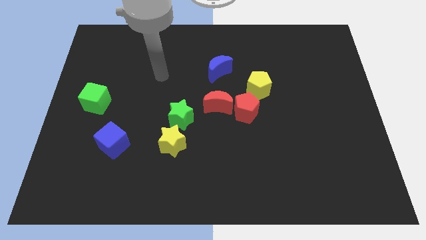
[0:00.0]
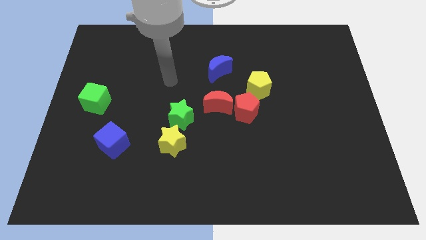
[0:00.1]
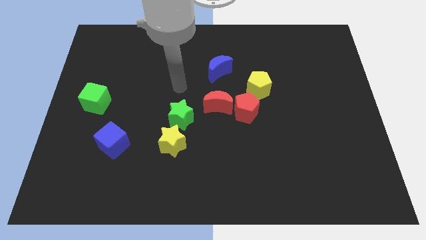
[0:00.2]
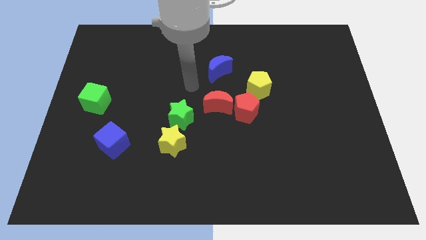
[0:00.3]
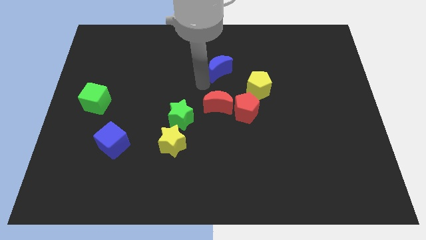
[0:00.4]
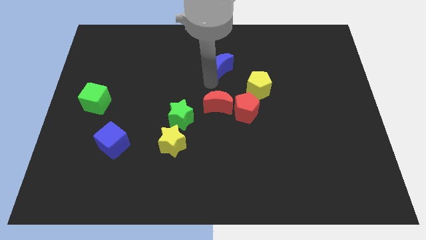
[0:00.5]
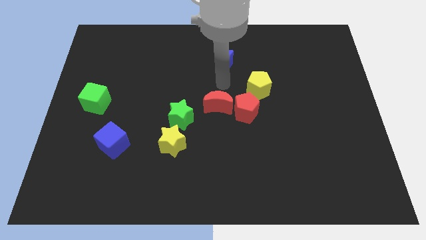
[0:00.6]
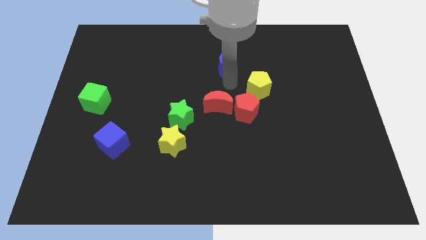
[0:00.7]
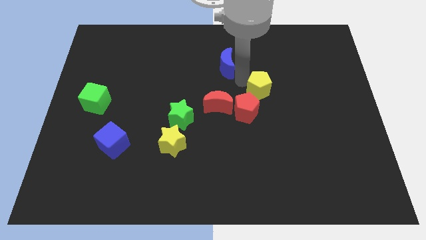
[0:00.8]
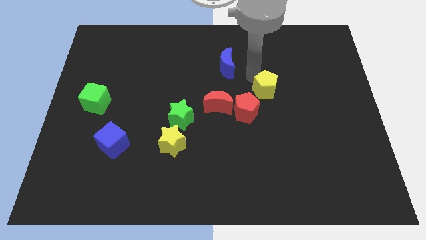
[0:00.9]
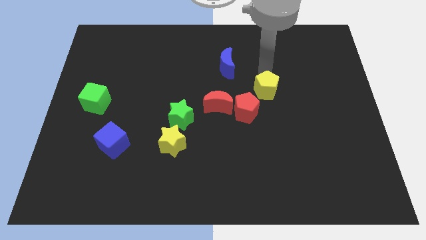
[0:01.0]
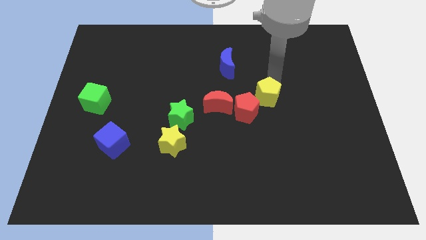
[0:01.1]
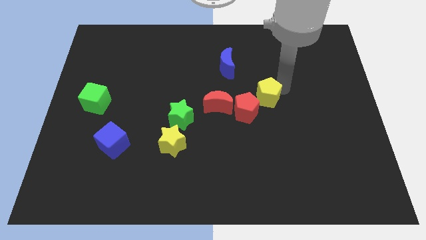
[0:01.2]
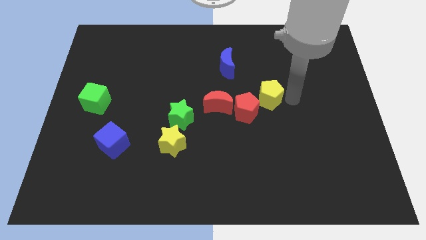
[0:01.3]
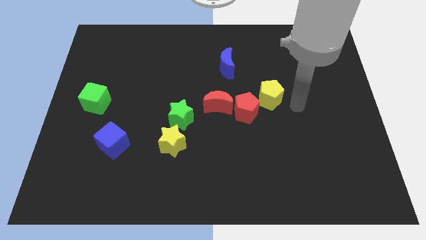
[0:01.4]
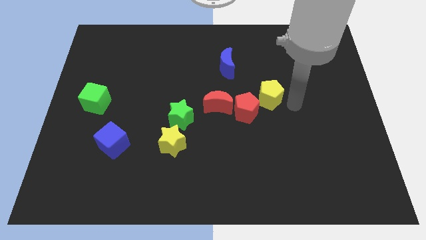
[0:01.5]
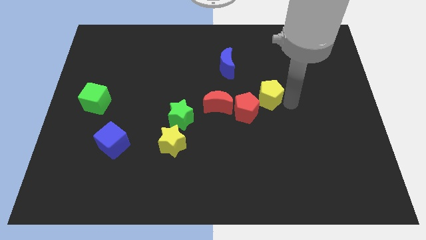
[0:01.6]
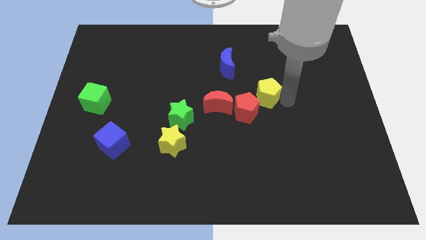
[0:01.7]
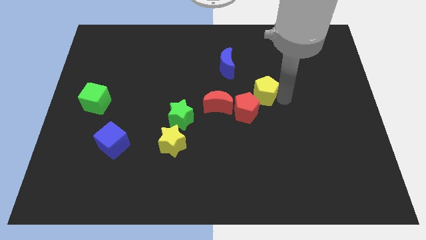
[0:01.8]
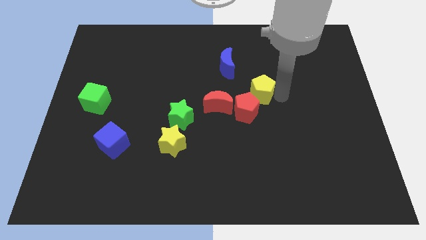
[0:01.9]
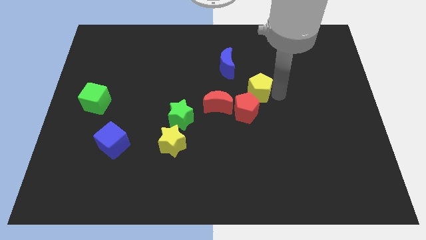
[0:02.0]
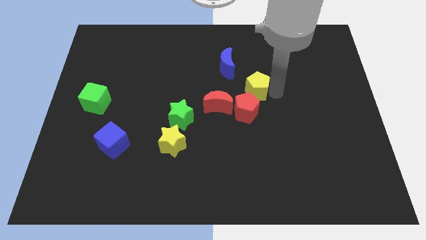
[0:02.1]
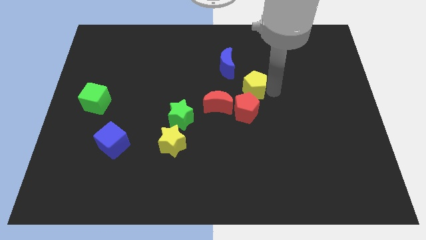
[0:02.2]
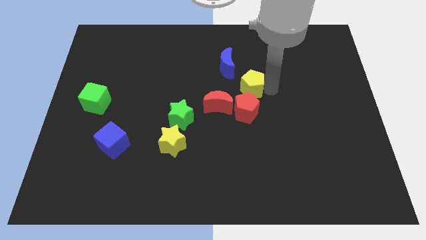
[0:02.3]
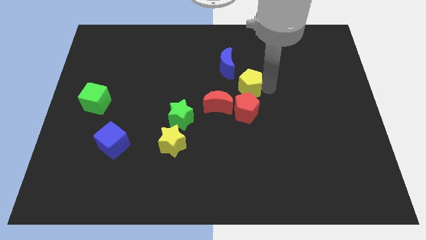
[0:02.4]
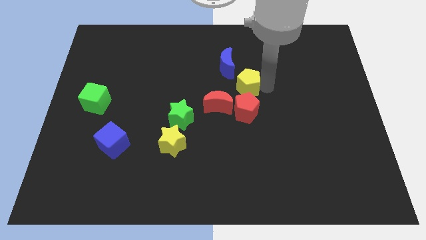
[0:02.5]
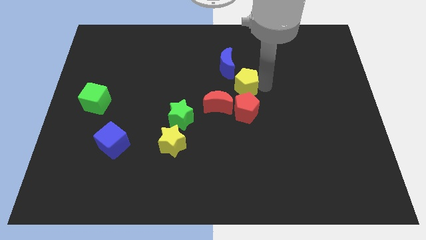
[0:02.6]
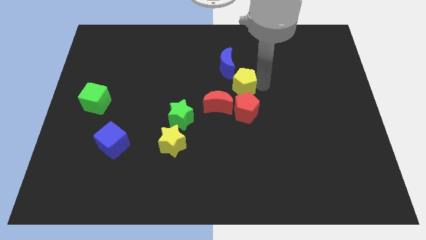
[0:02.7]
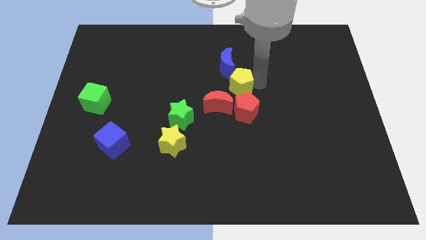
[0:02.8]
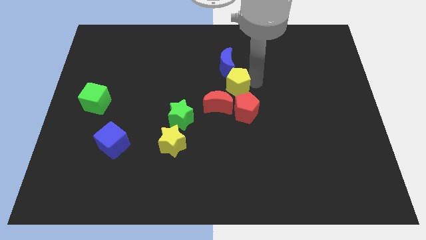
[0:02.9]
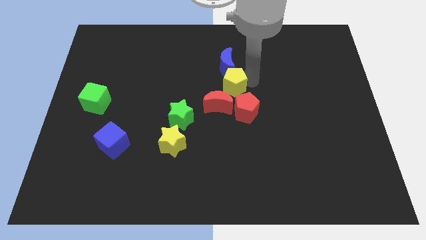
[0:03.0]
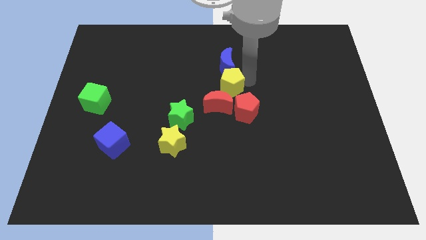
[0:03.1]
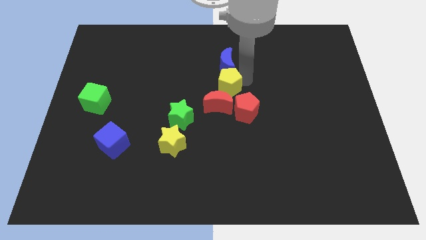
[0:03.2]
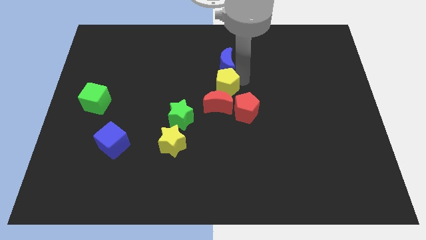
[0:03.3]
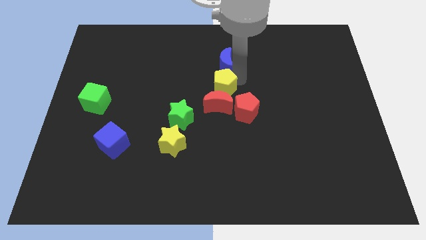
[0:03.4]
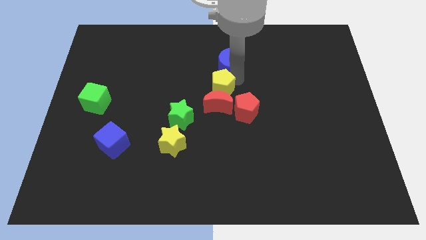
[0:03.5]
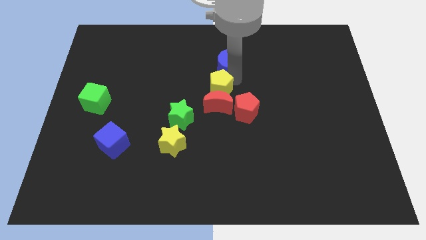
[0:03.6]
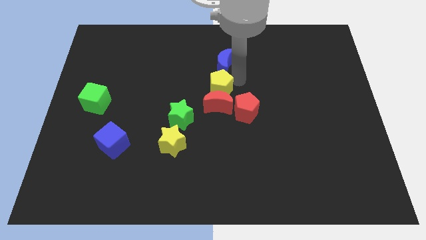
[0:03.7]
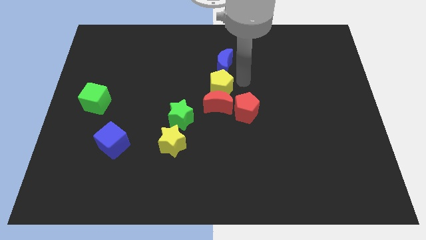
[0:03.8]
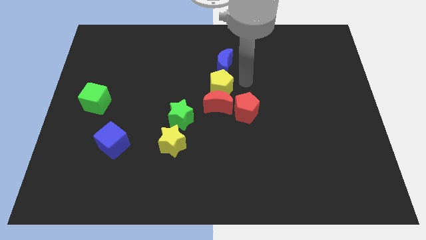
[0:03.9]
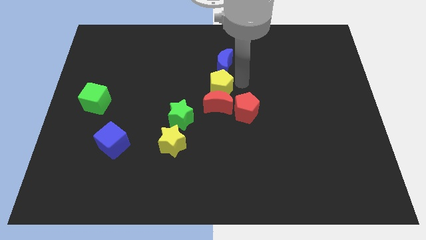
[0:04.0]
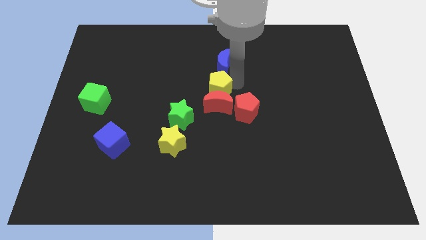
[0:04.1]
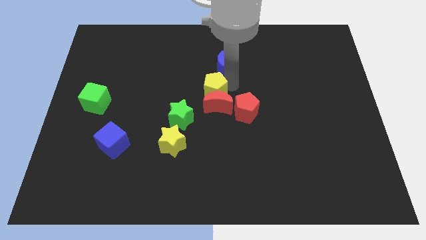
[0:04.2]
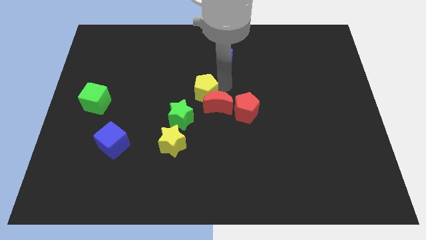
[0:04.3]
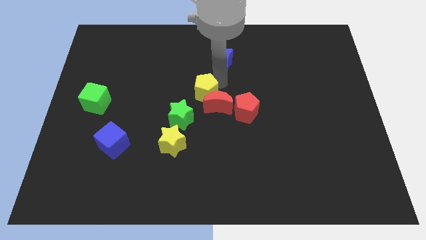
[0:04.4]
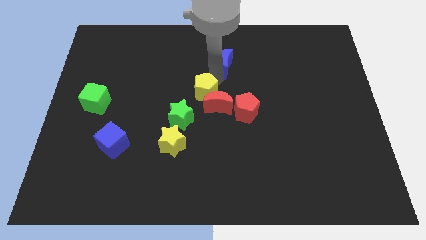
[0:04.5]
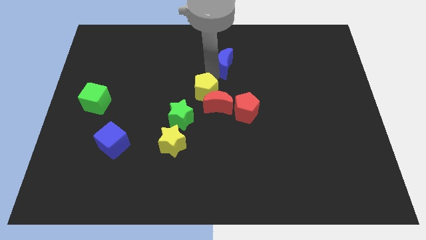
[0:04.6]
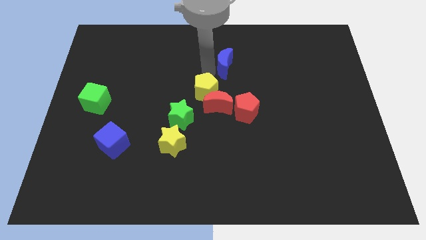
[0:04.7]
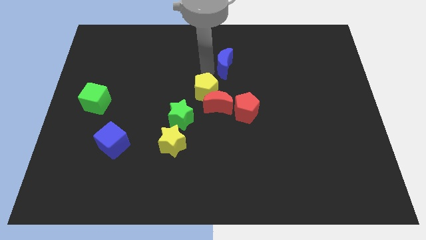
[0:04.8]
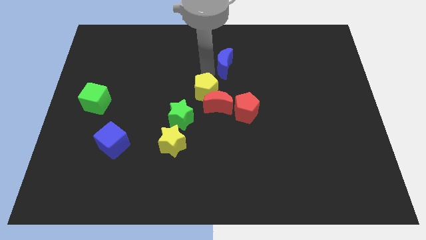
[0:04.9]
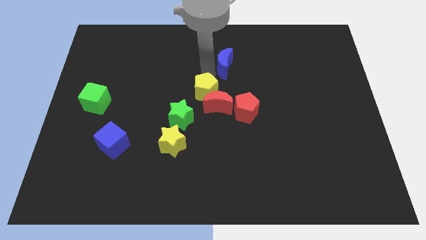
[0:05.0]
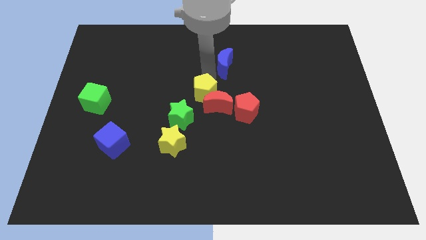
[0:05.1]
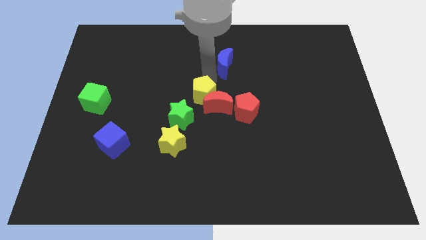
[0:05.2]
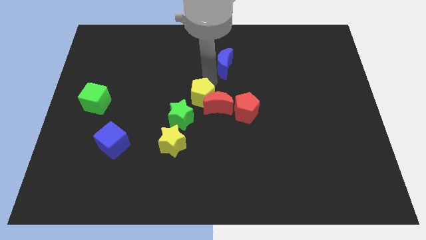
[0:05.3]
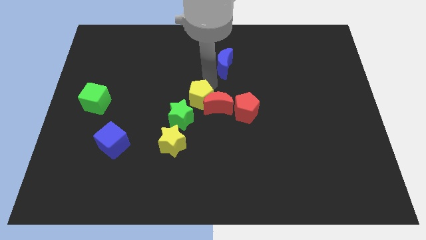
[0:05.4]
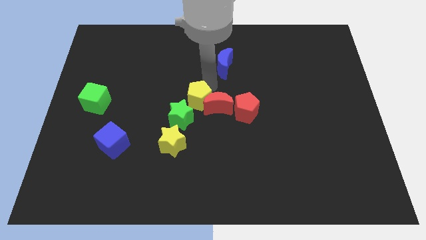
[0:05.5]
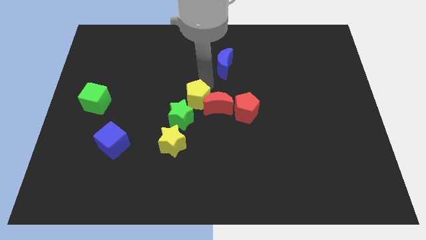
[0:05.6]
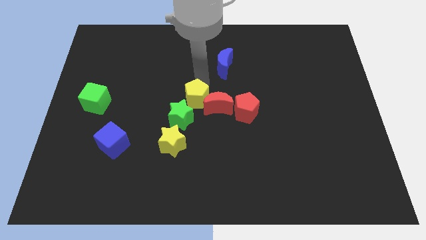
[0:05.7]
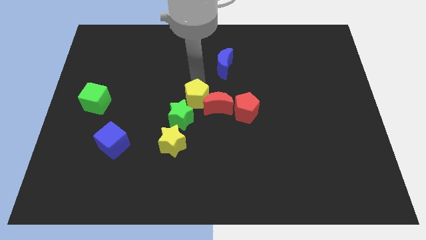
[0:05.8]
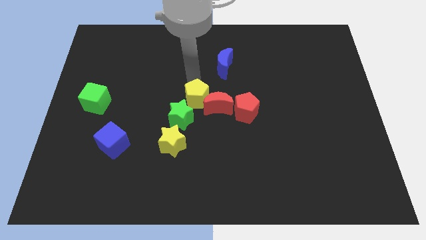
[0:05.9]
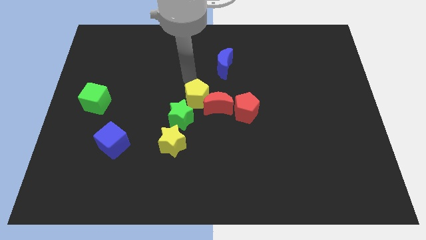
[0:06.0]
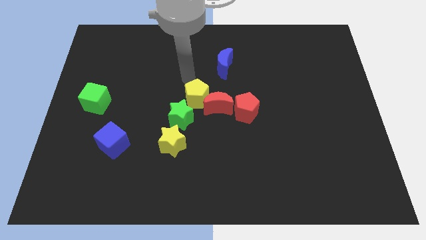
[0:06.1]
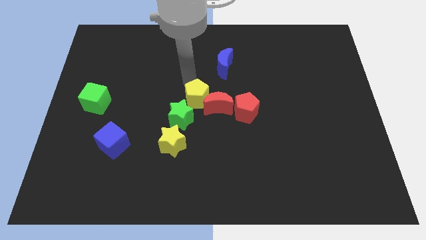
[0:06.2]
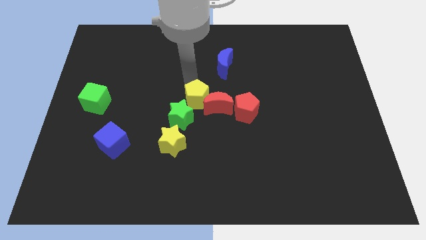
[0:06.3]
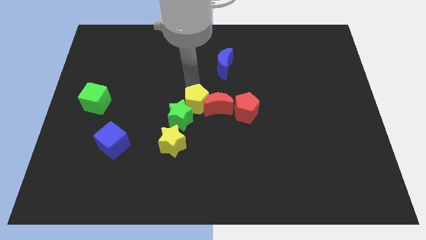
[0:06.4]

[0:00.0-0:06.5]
move the yellow pentagon to the bottom left side of the red moon

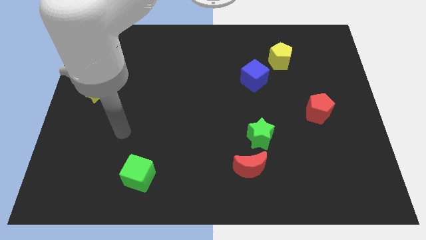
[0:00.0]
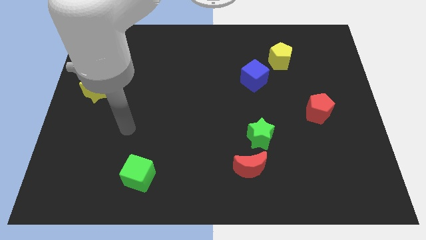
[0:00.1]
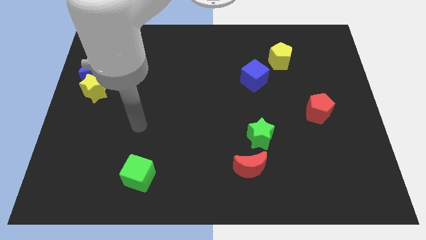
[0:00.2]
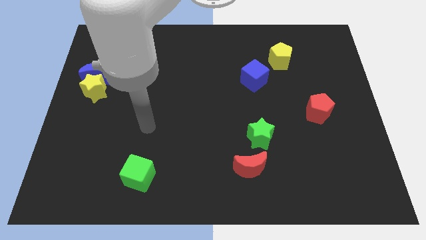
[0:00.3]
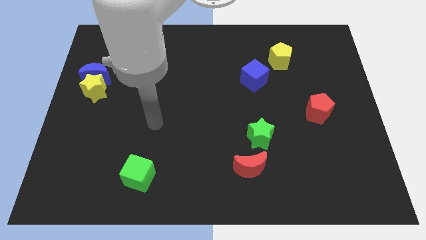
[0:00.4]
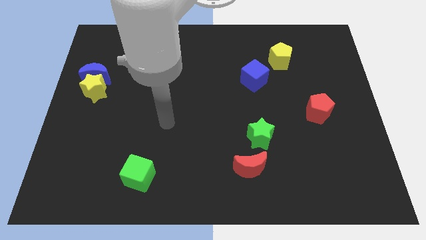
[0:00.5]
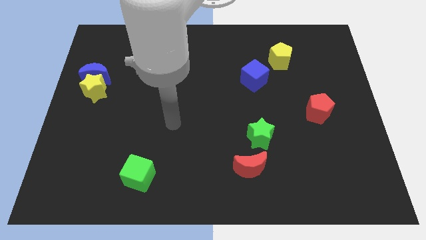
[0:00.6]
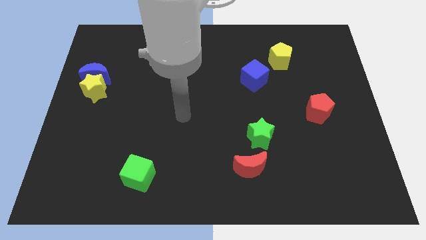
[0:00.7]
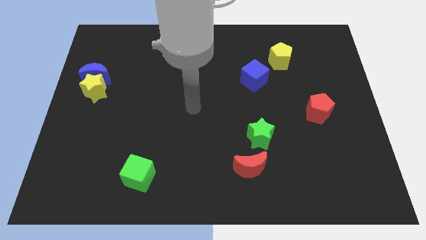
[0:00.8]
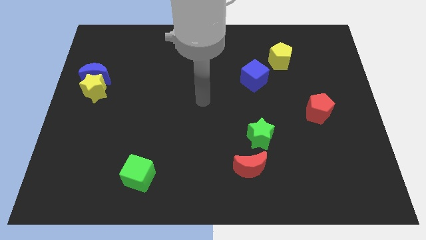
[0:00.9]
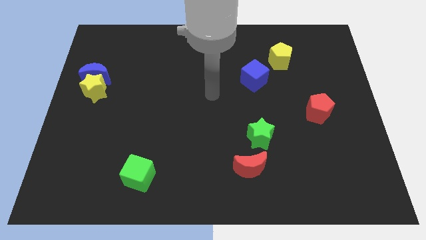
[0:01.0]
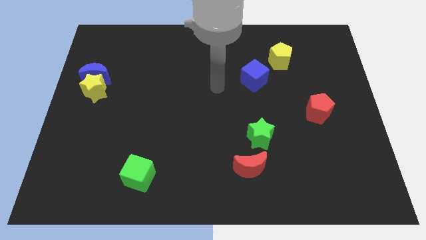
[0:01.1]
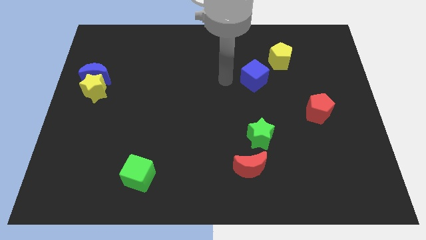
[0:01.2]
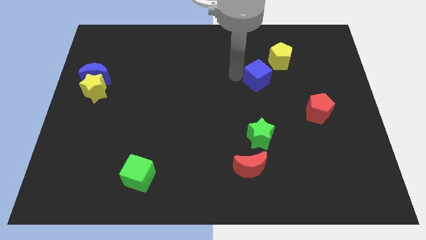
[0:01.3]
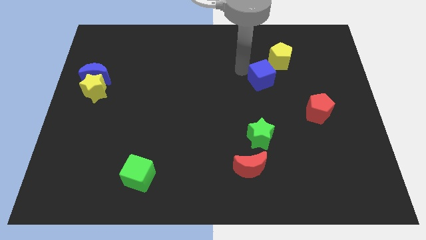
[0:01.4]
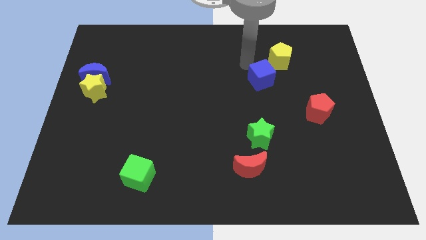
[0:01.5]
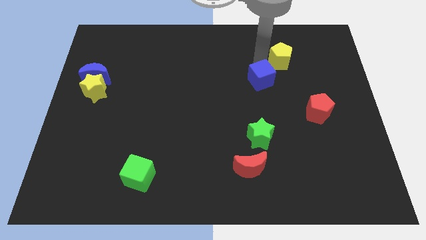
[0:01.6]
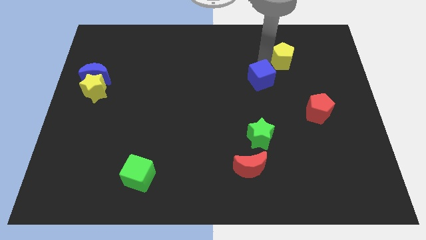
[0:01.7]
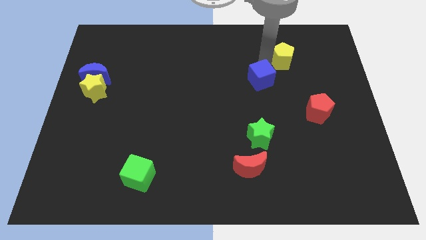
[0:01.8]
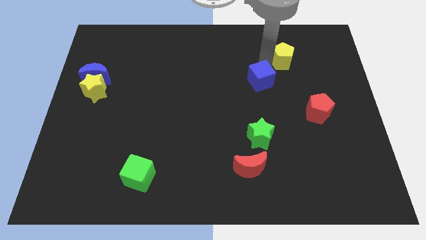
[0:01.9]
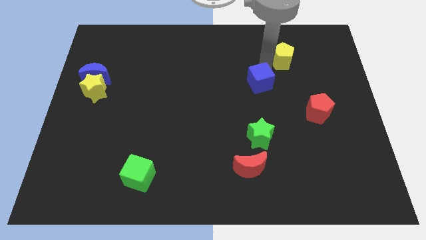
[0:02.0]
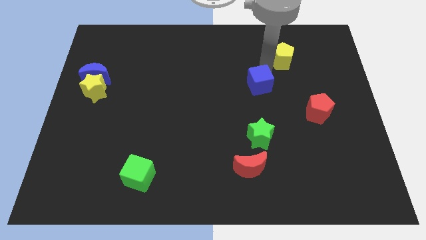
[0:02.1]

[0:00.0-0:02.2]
slide the blue cube above the green star
